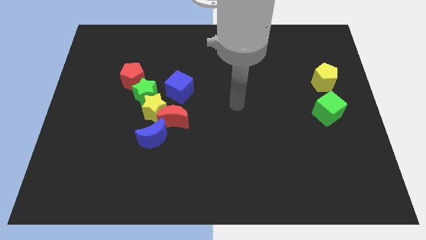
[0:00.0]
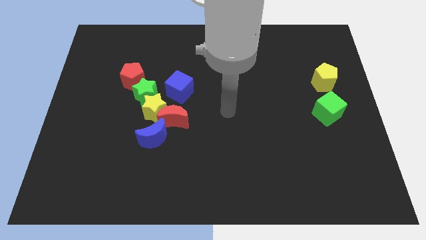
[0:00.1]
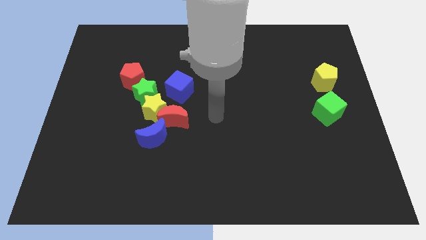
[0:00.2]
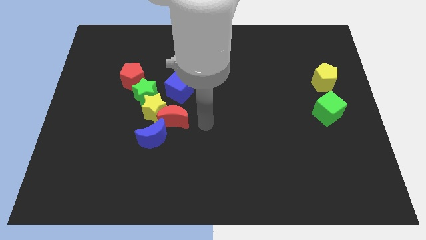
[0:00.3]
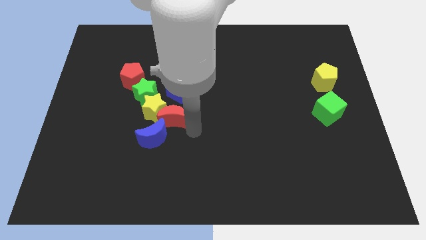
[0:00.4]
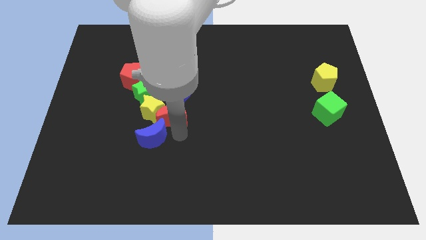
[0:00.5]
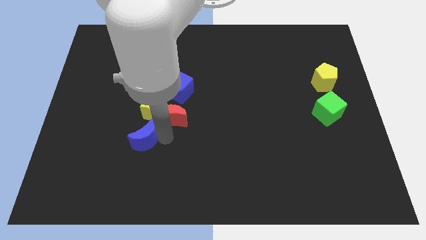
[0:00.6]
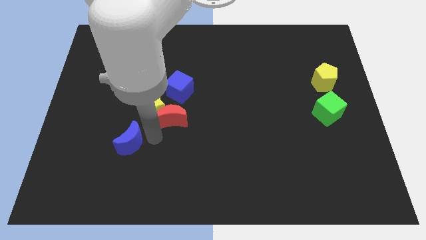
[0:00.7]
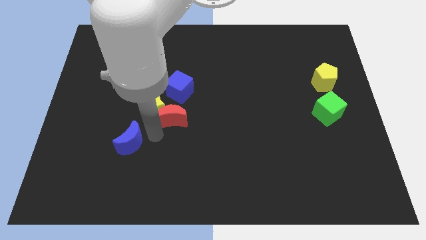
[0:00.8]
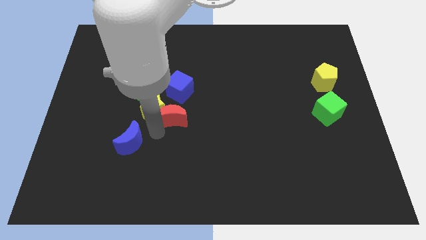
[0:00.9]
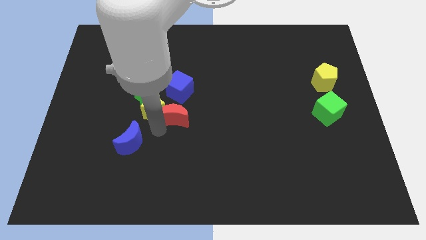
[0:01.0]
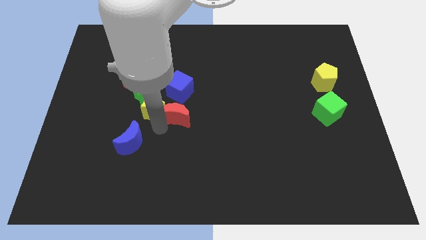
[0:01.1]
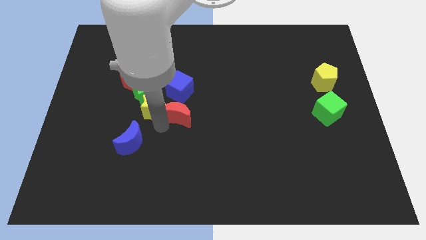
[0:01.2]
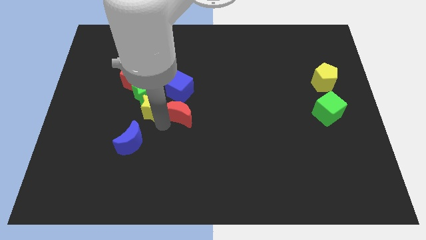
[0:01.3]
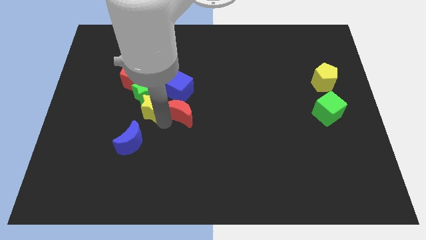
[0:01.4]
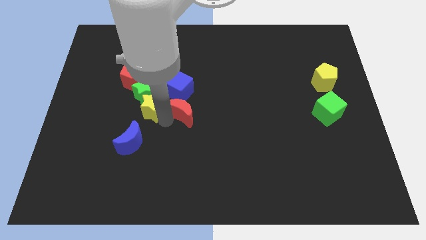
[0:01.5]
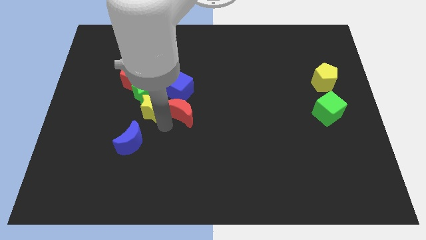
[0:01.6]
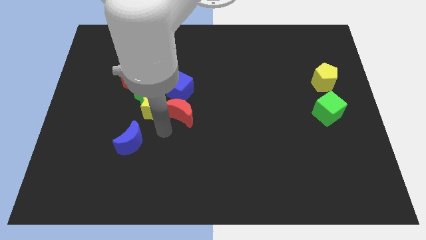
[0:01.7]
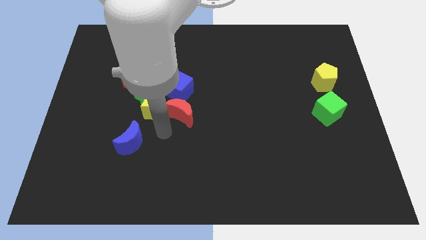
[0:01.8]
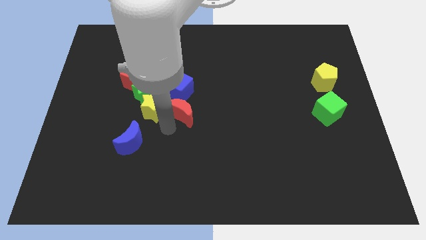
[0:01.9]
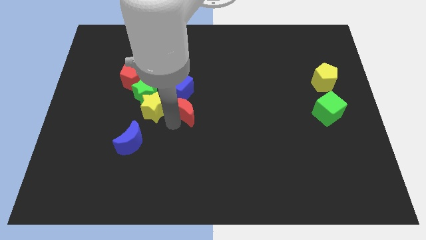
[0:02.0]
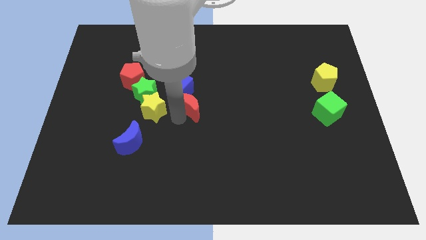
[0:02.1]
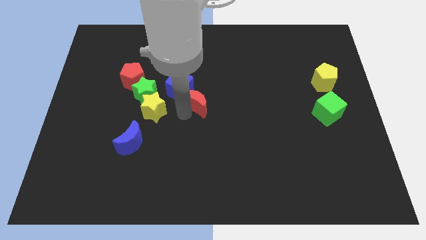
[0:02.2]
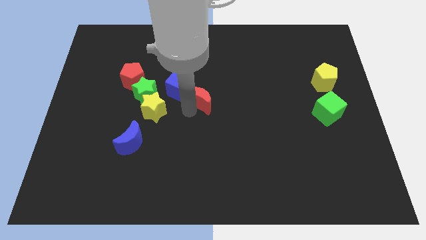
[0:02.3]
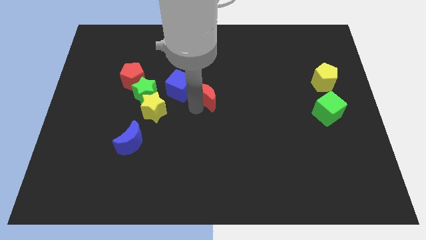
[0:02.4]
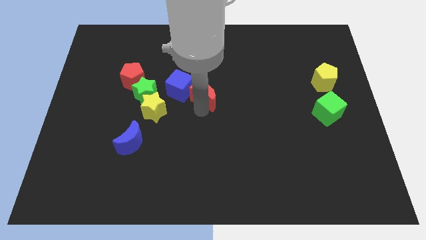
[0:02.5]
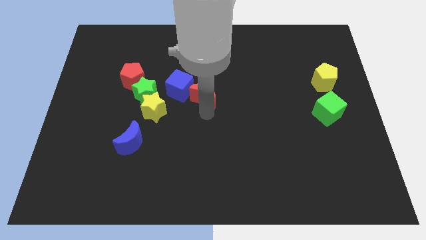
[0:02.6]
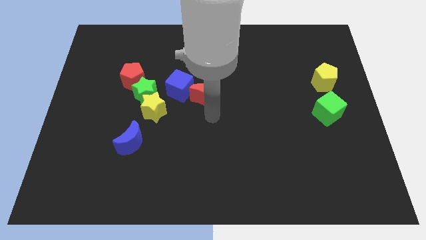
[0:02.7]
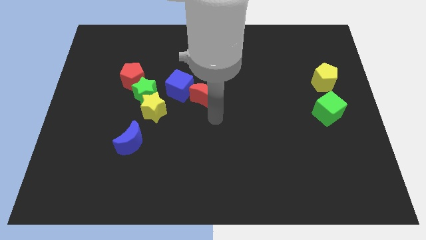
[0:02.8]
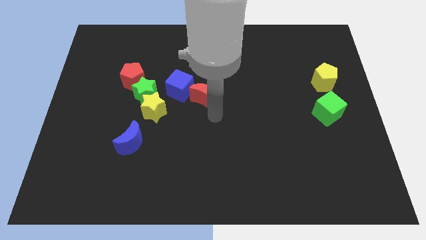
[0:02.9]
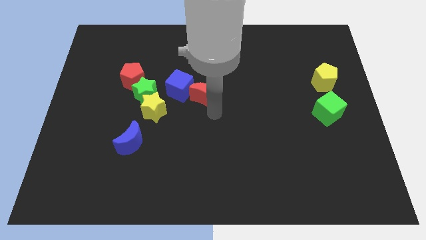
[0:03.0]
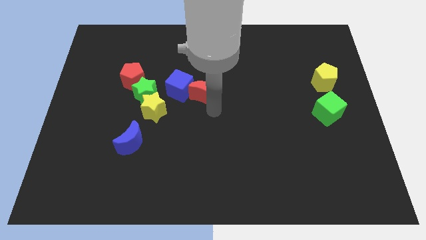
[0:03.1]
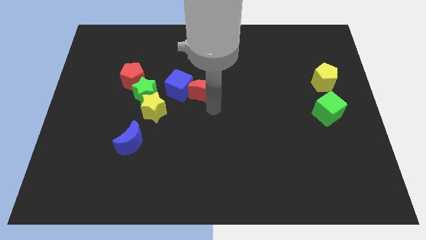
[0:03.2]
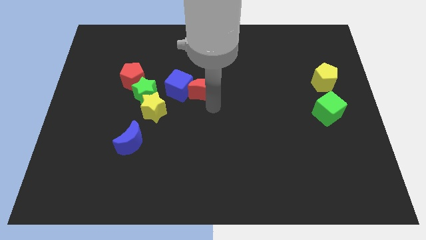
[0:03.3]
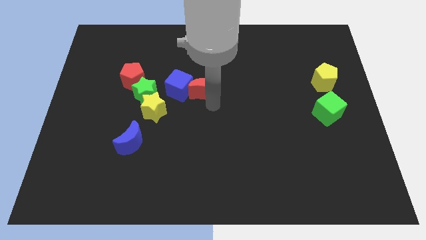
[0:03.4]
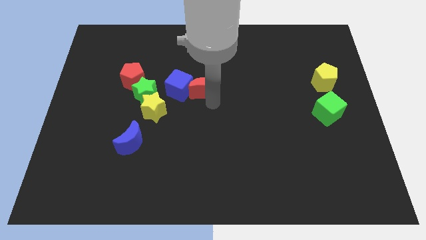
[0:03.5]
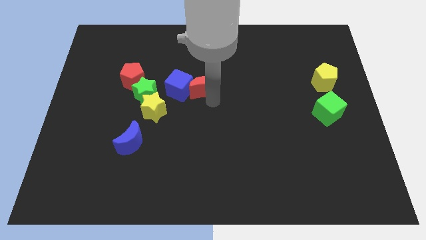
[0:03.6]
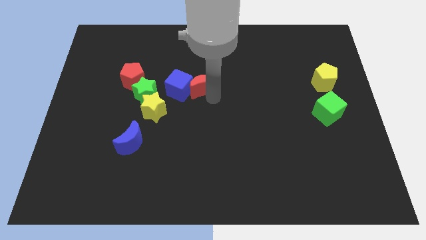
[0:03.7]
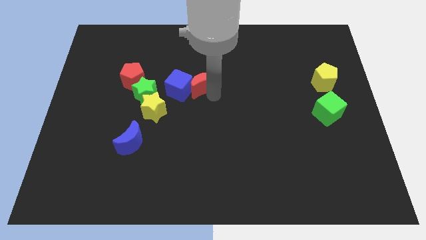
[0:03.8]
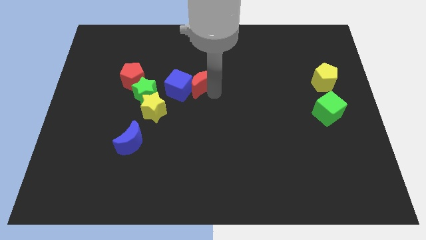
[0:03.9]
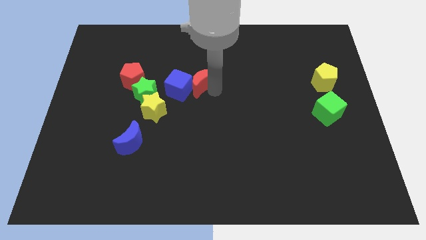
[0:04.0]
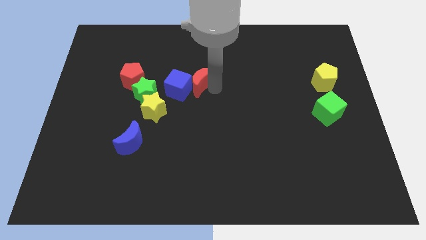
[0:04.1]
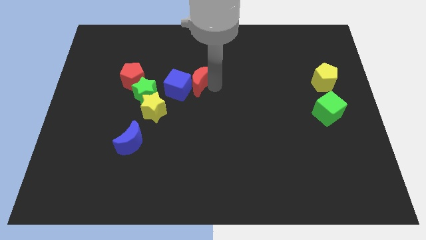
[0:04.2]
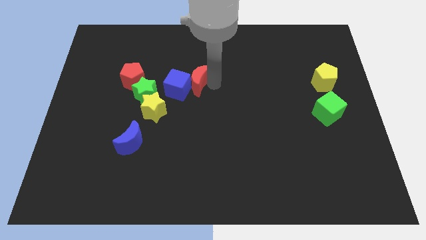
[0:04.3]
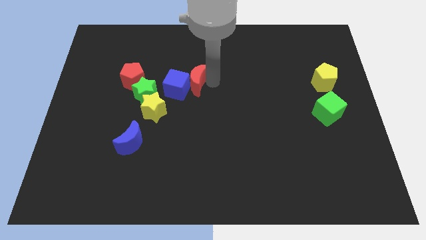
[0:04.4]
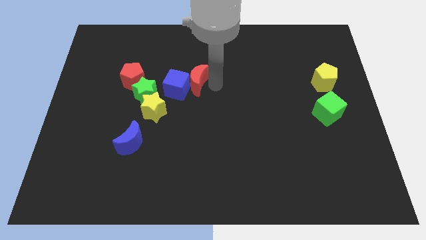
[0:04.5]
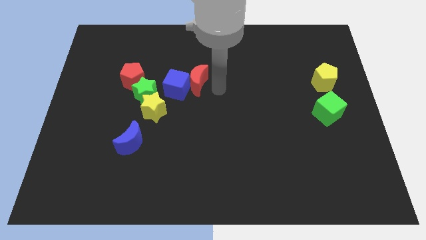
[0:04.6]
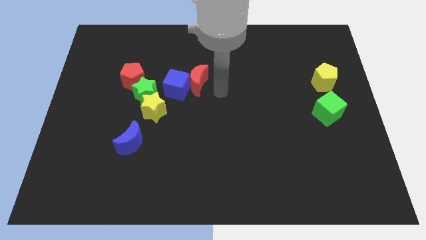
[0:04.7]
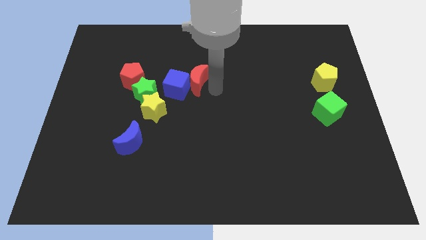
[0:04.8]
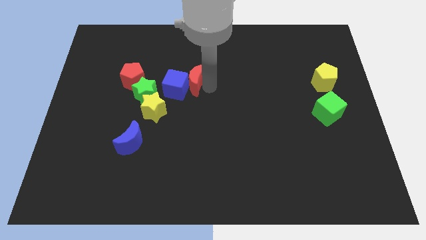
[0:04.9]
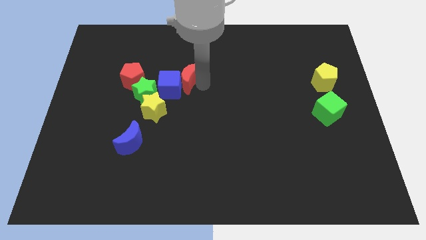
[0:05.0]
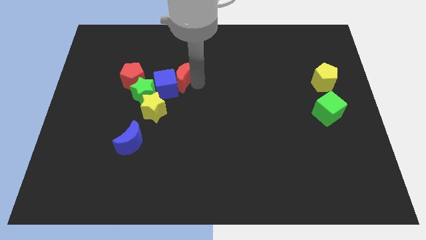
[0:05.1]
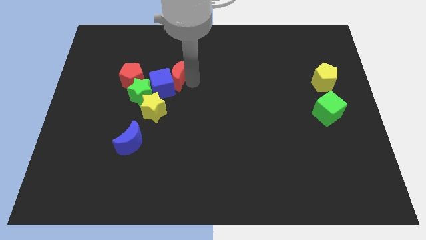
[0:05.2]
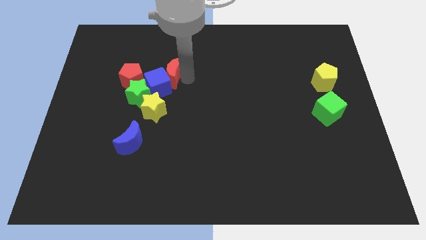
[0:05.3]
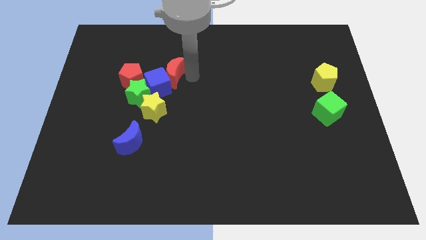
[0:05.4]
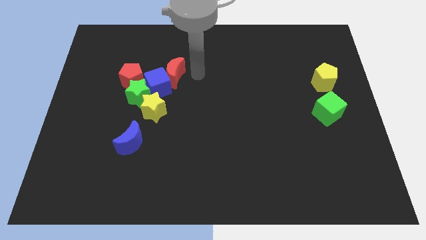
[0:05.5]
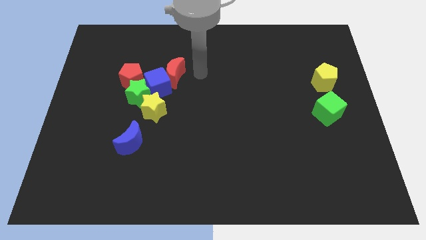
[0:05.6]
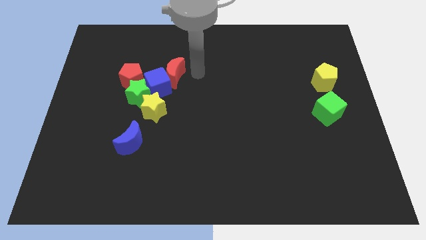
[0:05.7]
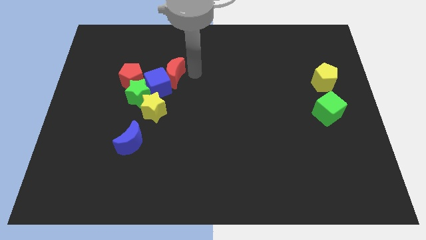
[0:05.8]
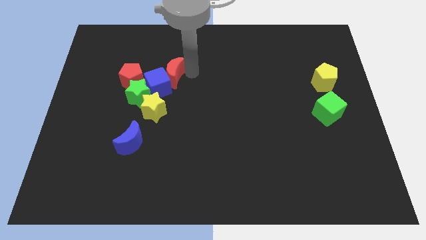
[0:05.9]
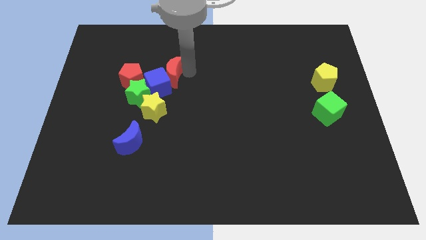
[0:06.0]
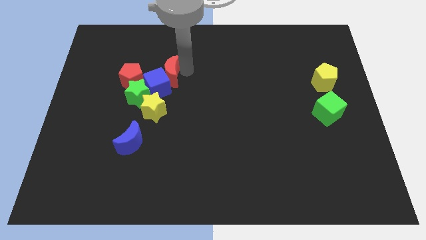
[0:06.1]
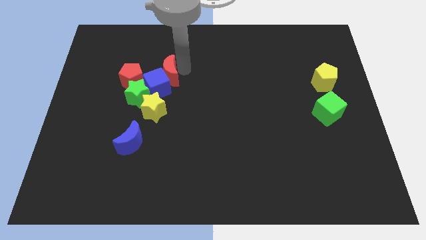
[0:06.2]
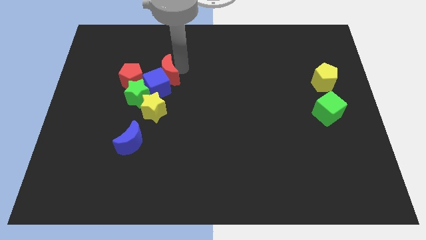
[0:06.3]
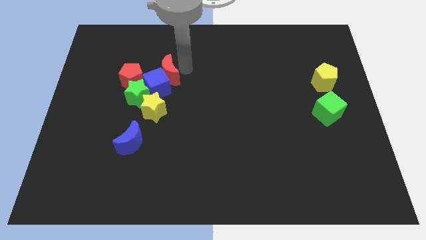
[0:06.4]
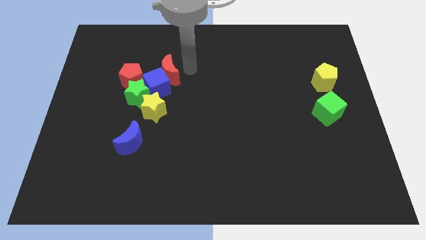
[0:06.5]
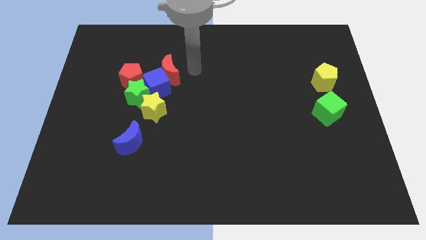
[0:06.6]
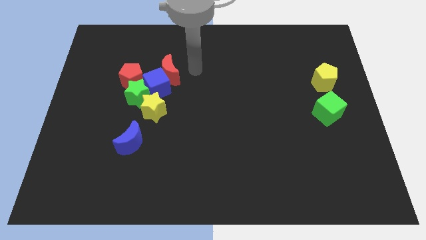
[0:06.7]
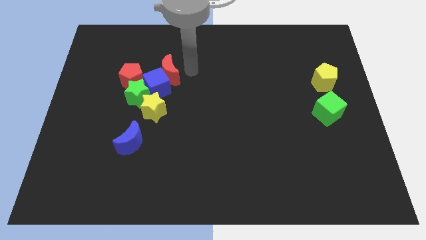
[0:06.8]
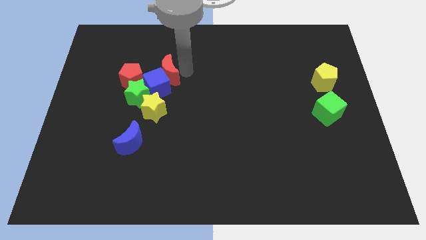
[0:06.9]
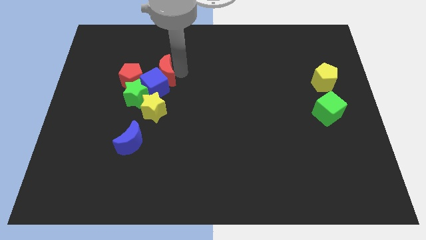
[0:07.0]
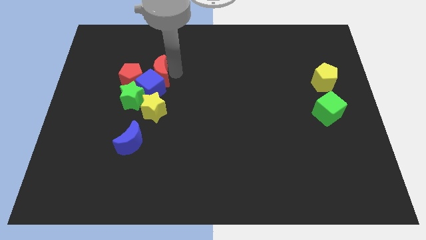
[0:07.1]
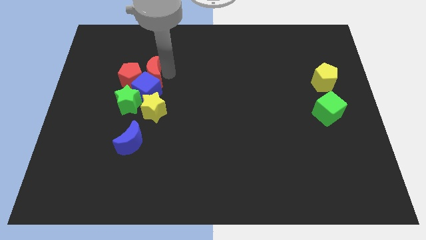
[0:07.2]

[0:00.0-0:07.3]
slide the red moon next to the red pentagon
